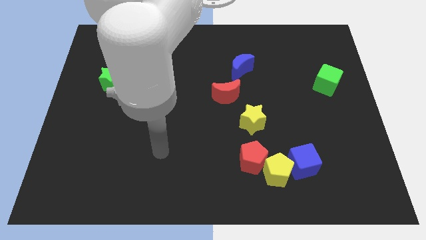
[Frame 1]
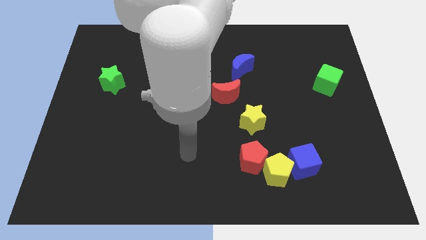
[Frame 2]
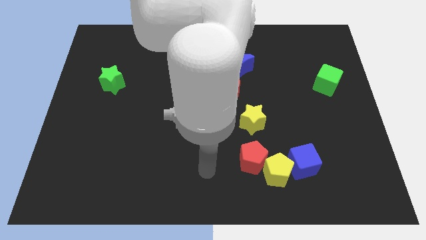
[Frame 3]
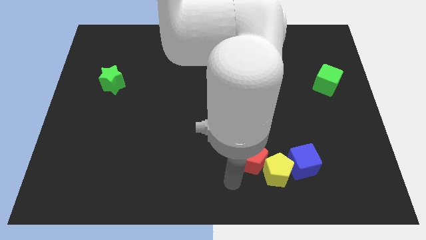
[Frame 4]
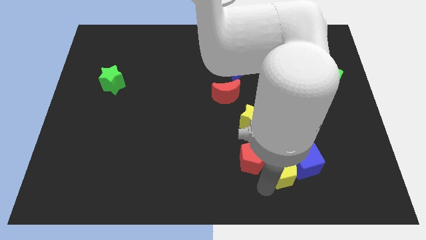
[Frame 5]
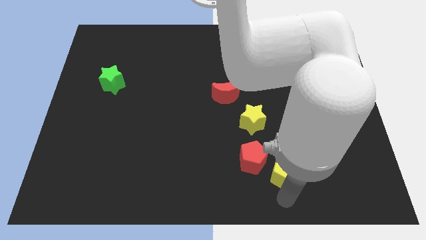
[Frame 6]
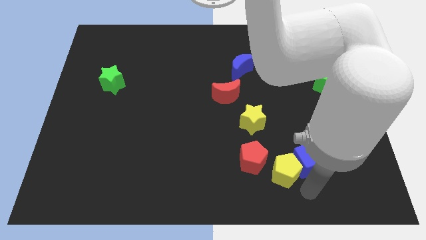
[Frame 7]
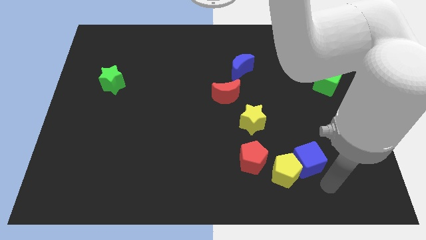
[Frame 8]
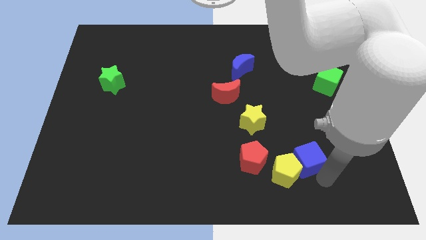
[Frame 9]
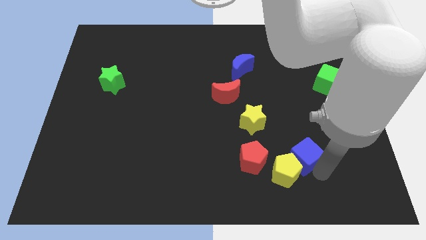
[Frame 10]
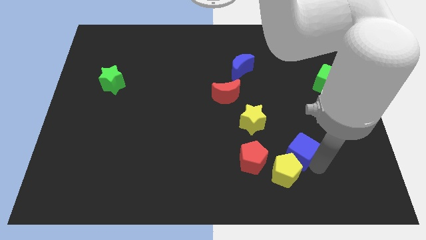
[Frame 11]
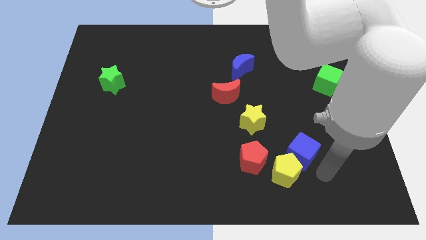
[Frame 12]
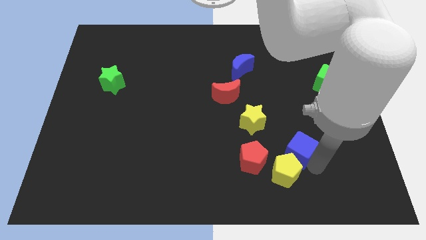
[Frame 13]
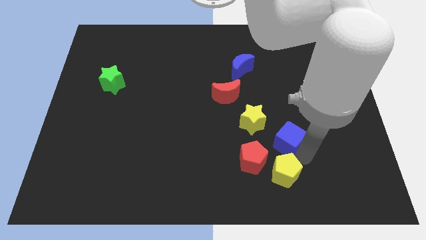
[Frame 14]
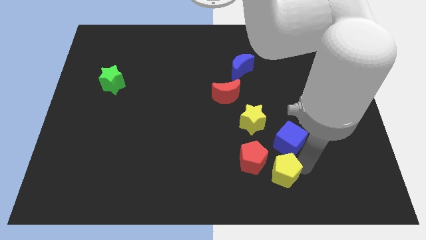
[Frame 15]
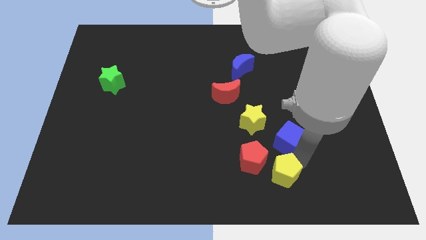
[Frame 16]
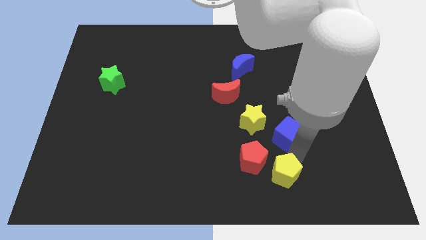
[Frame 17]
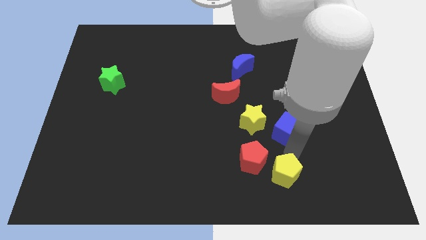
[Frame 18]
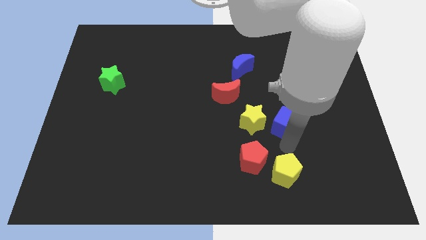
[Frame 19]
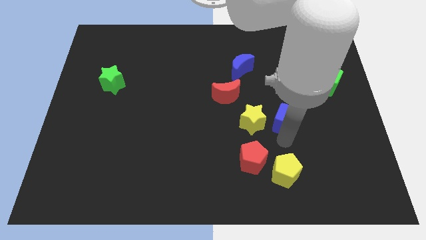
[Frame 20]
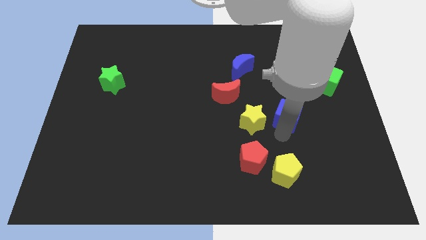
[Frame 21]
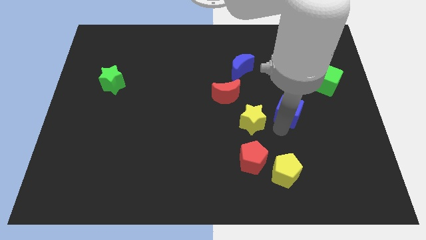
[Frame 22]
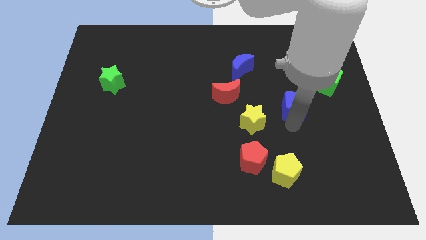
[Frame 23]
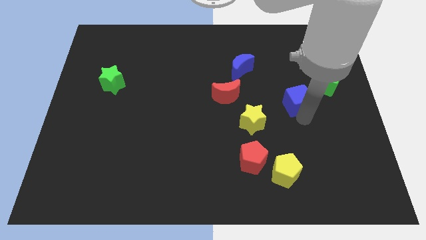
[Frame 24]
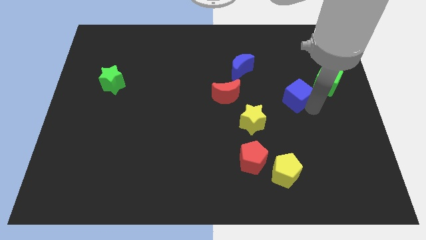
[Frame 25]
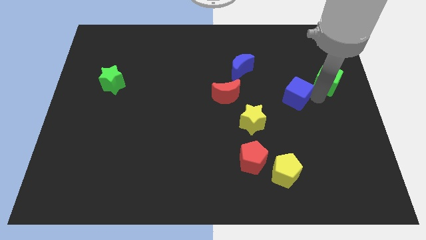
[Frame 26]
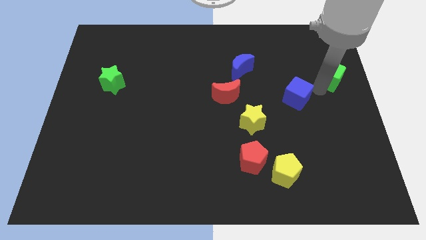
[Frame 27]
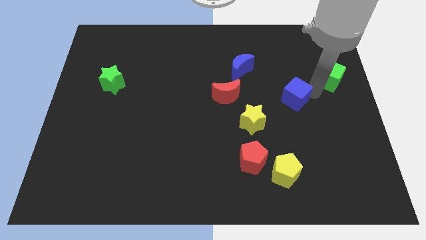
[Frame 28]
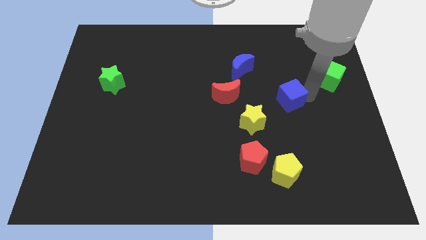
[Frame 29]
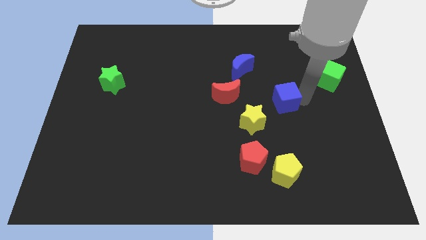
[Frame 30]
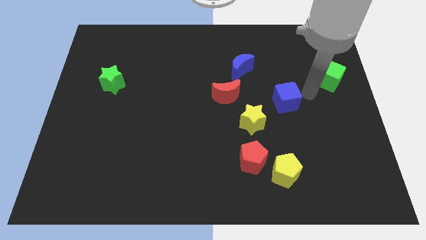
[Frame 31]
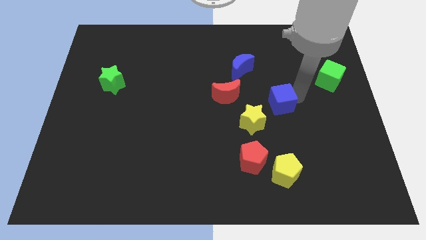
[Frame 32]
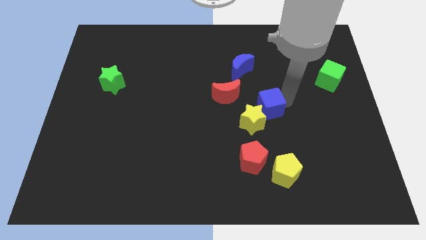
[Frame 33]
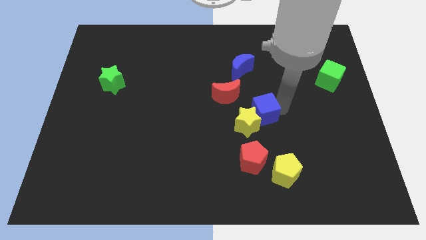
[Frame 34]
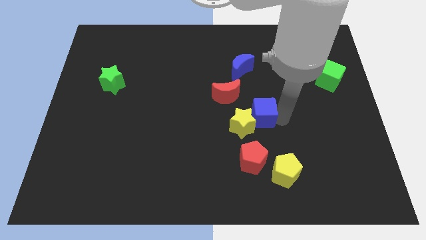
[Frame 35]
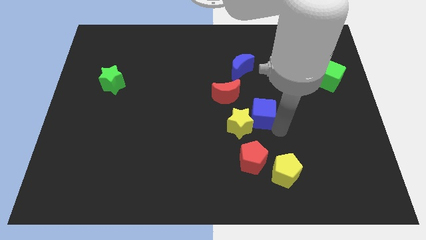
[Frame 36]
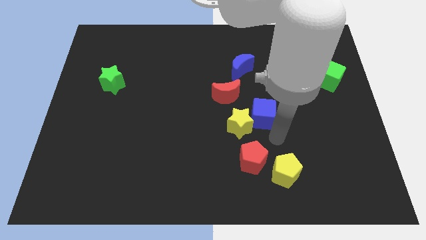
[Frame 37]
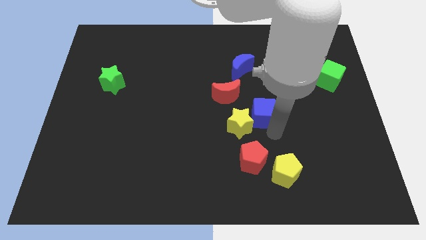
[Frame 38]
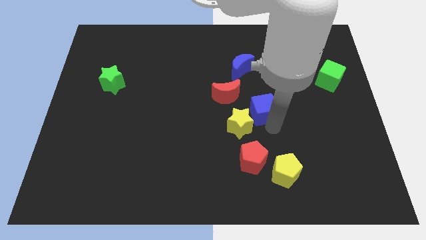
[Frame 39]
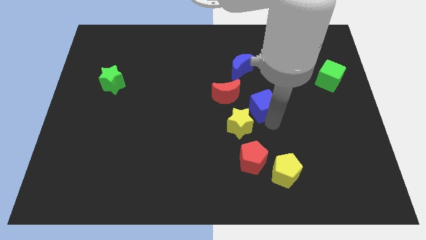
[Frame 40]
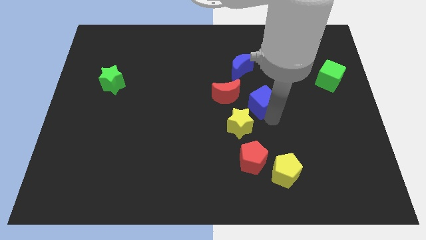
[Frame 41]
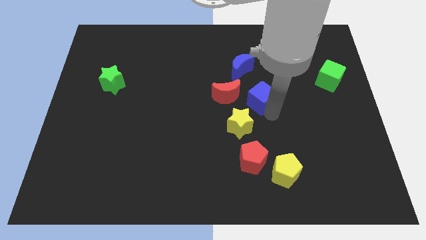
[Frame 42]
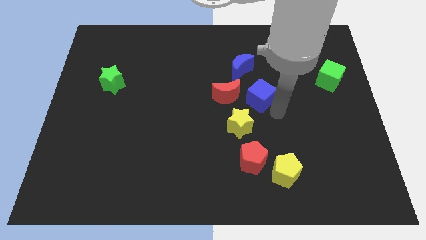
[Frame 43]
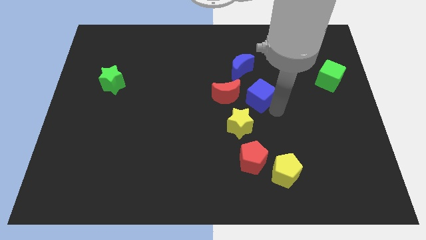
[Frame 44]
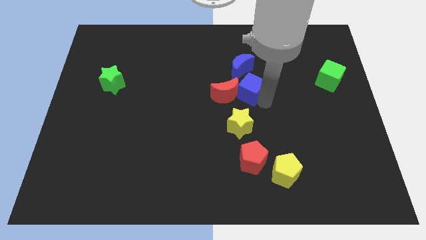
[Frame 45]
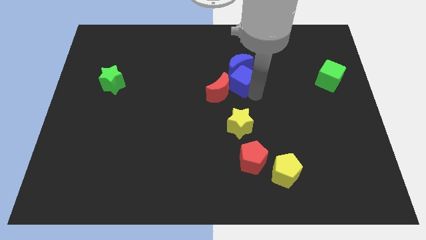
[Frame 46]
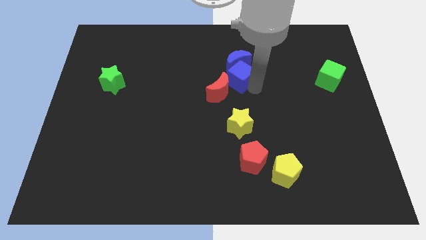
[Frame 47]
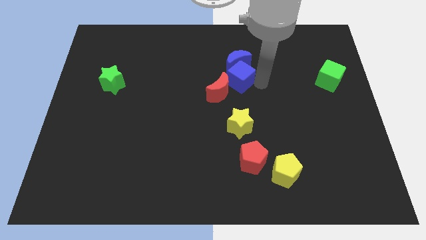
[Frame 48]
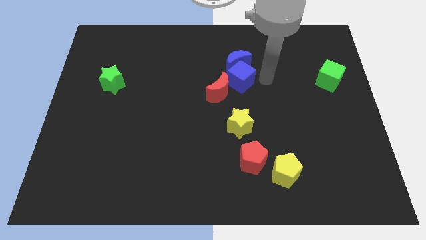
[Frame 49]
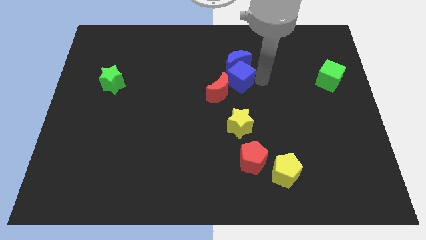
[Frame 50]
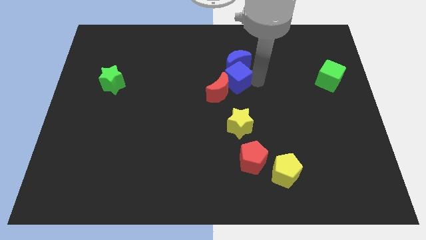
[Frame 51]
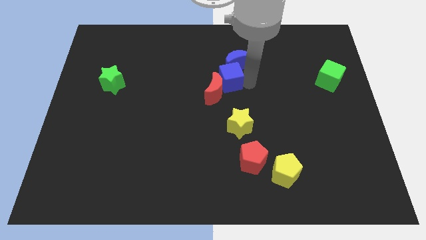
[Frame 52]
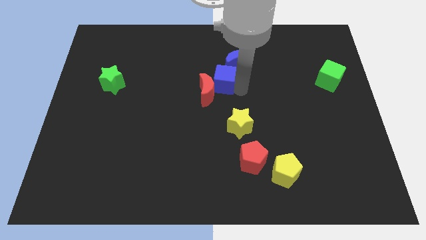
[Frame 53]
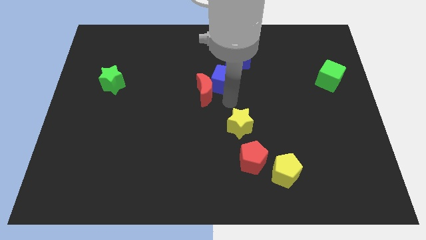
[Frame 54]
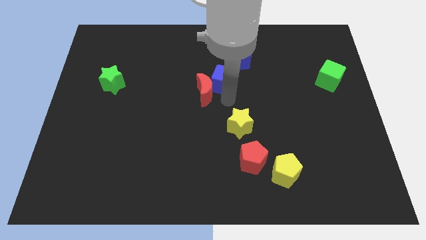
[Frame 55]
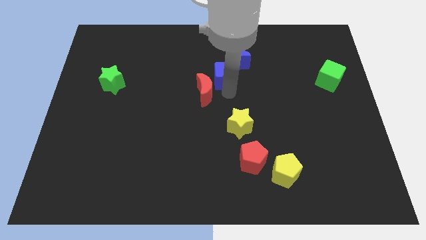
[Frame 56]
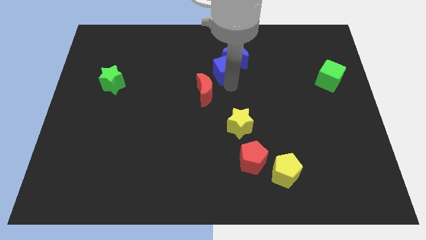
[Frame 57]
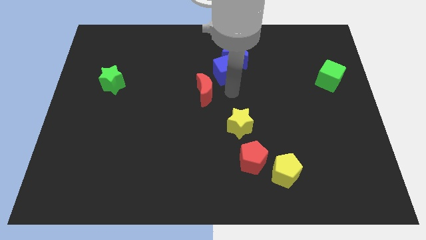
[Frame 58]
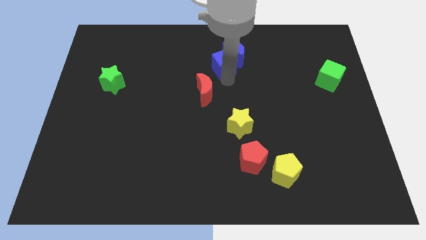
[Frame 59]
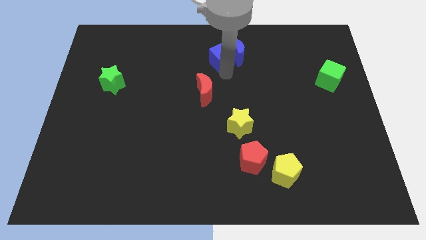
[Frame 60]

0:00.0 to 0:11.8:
push the blue cube diagonally up and to the left of the blue moon

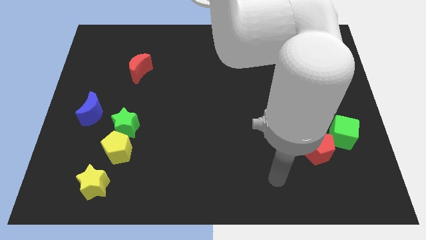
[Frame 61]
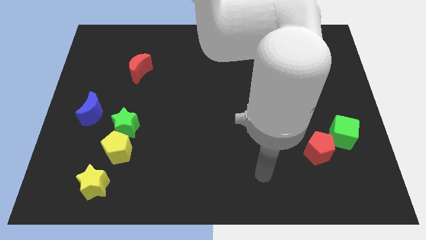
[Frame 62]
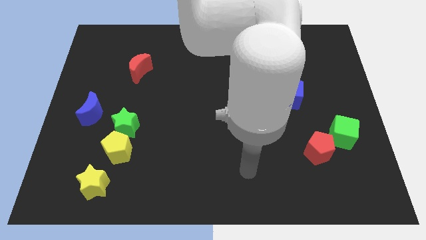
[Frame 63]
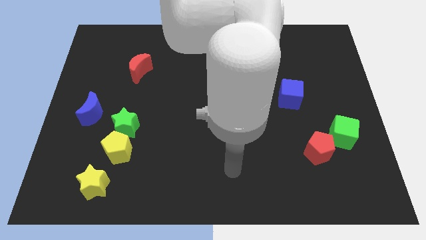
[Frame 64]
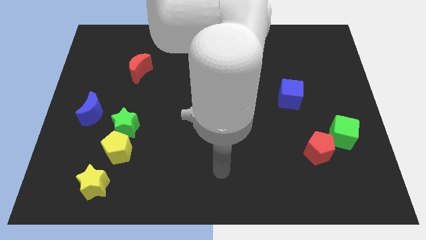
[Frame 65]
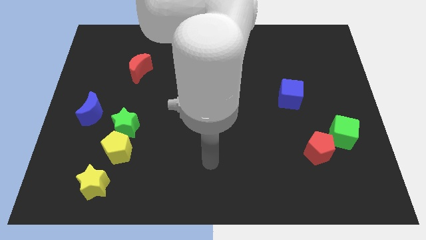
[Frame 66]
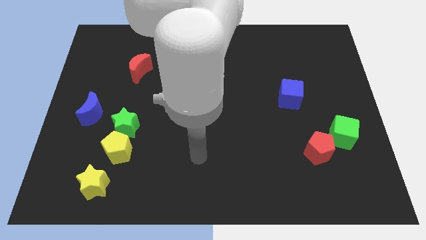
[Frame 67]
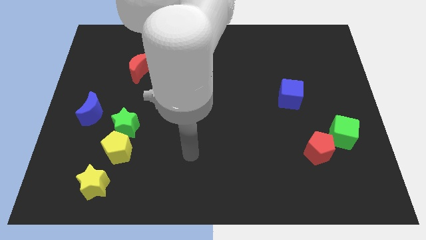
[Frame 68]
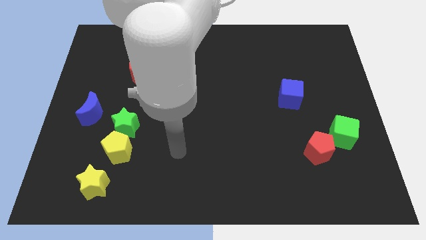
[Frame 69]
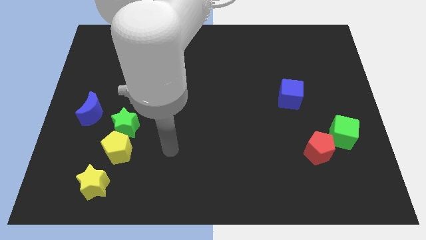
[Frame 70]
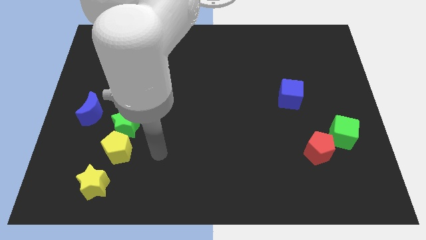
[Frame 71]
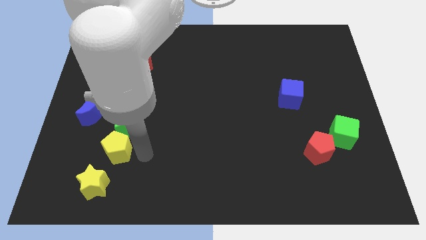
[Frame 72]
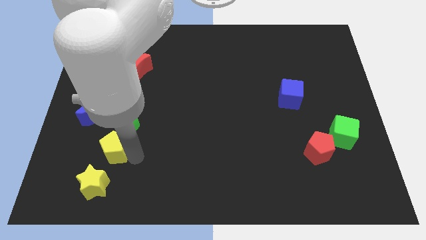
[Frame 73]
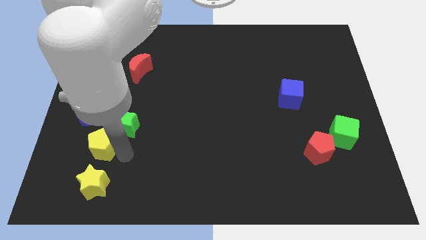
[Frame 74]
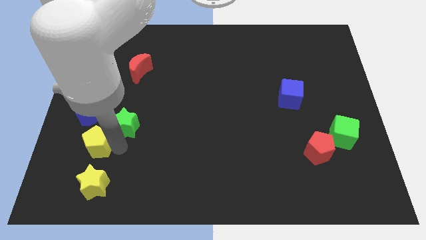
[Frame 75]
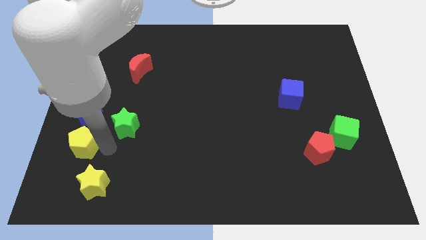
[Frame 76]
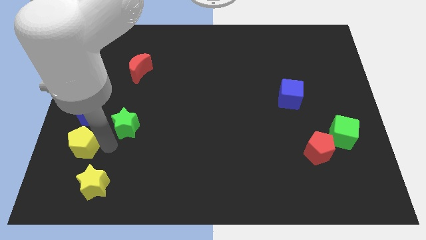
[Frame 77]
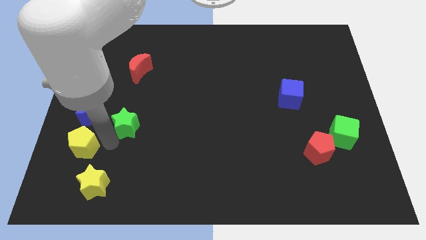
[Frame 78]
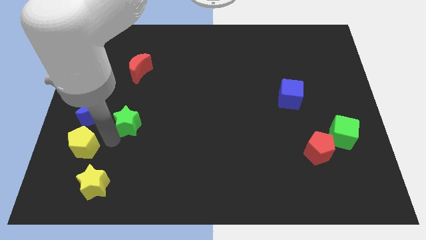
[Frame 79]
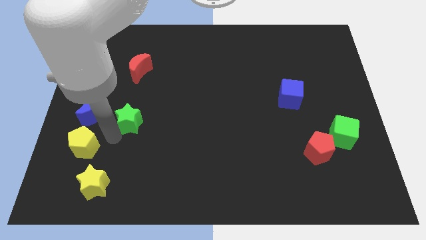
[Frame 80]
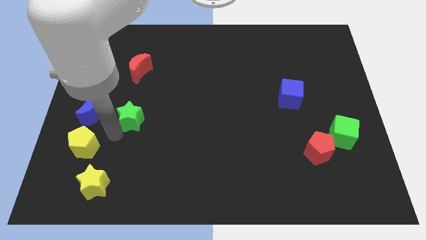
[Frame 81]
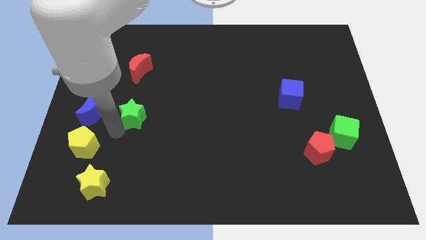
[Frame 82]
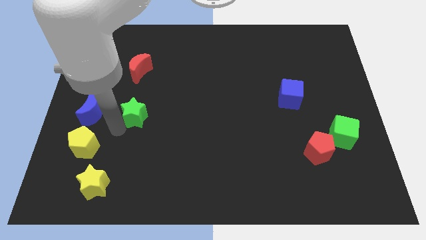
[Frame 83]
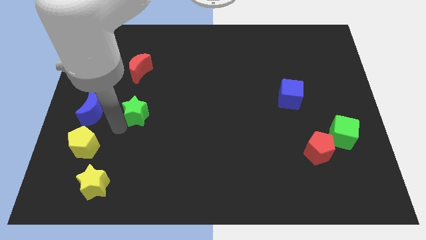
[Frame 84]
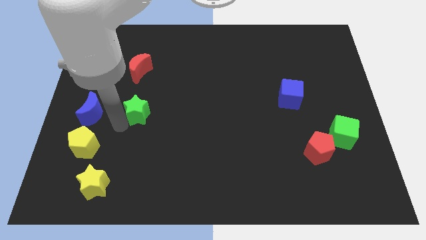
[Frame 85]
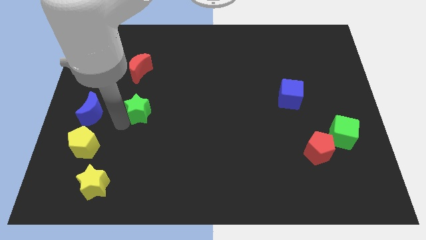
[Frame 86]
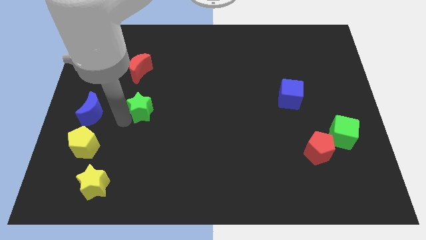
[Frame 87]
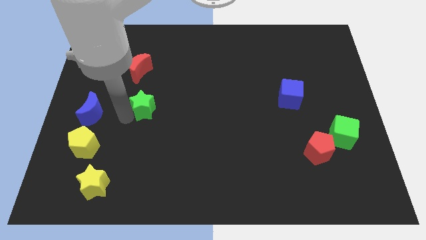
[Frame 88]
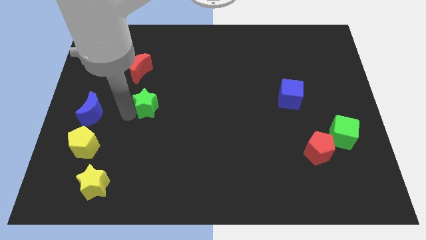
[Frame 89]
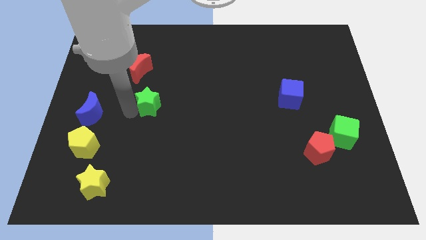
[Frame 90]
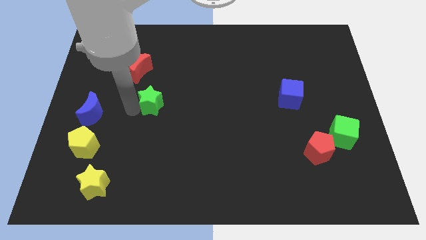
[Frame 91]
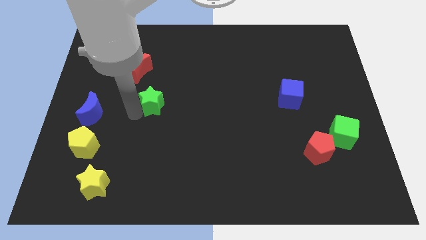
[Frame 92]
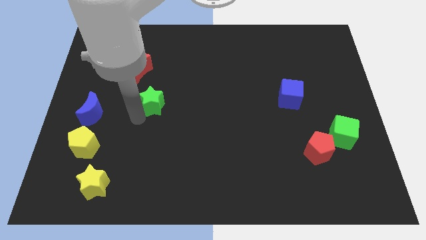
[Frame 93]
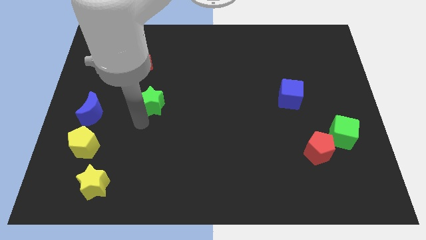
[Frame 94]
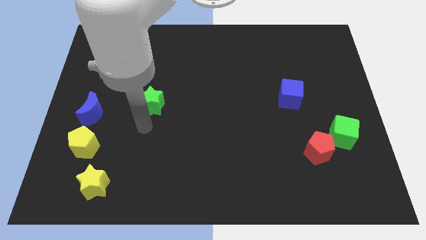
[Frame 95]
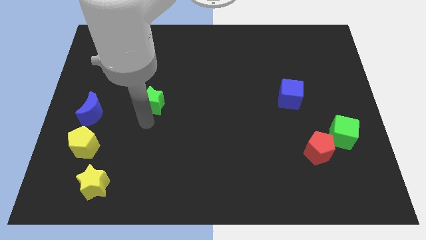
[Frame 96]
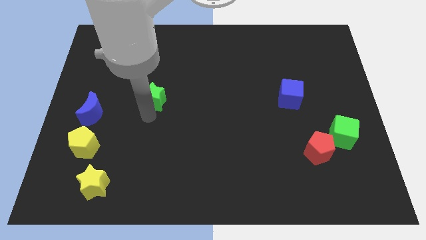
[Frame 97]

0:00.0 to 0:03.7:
put the green star diagonally down and to the right of the red moon
